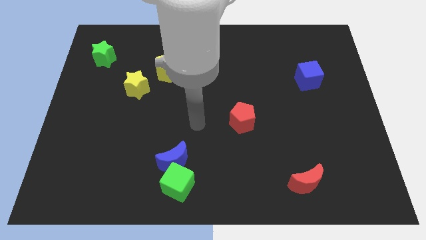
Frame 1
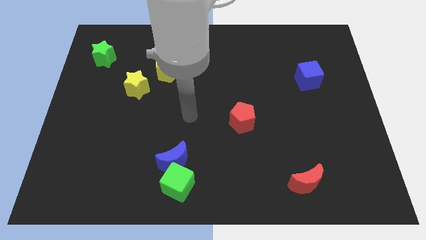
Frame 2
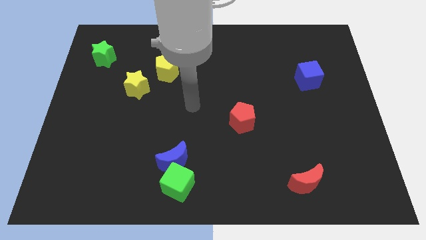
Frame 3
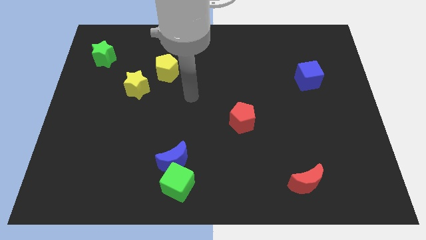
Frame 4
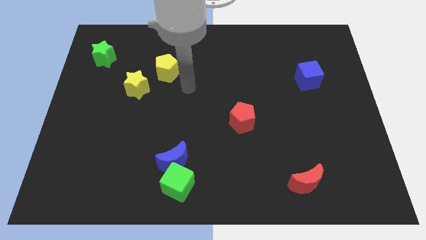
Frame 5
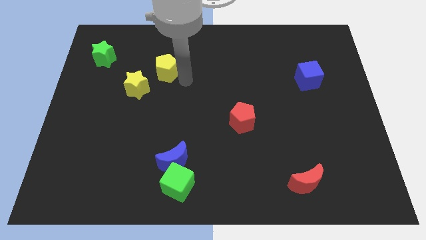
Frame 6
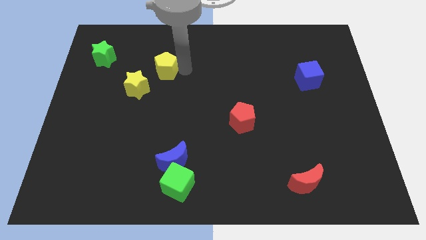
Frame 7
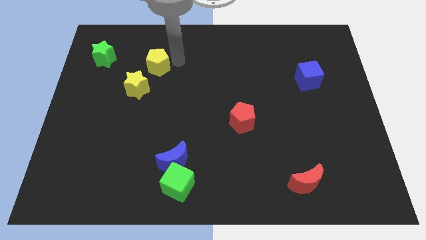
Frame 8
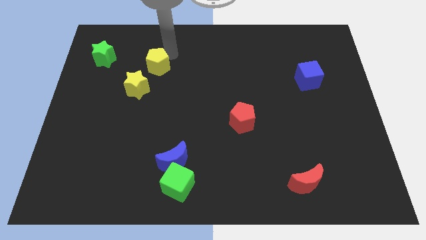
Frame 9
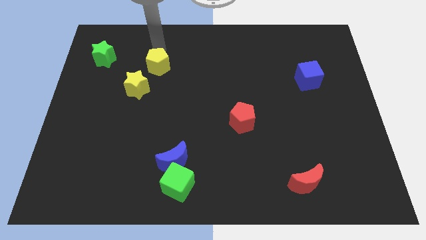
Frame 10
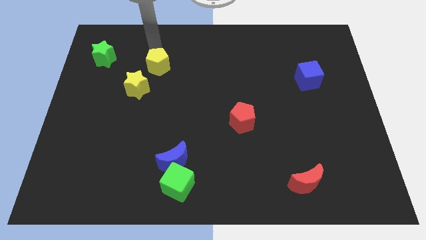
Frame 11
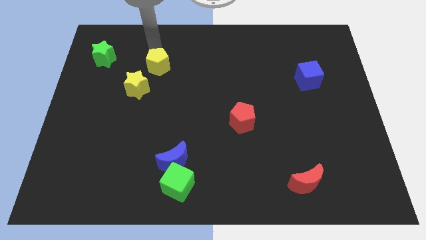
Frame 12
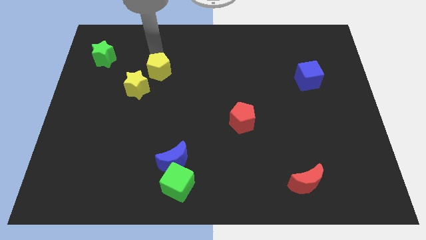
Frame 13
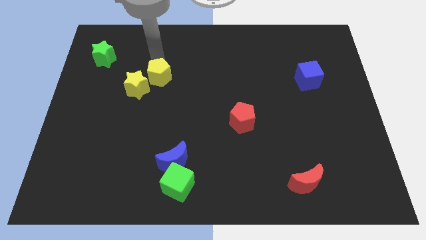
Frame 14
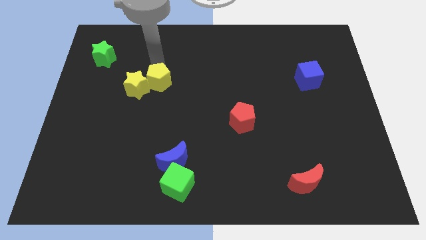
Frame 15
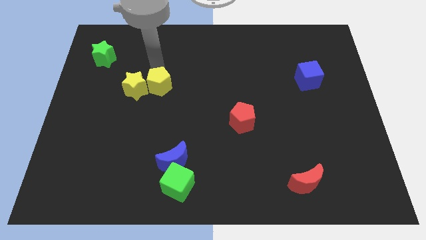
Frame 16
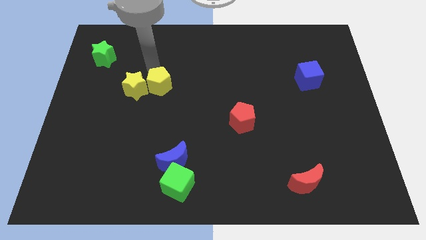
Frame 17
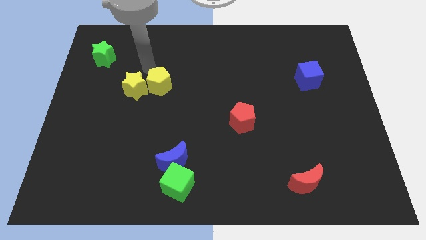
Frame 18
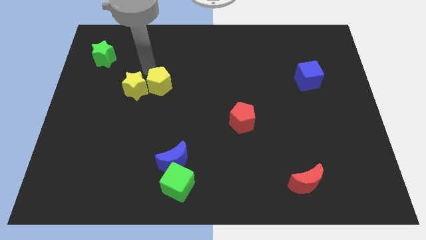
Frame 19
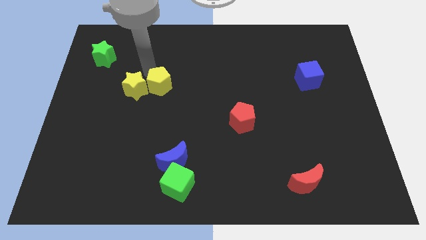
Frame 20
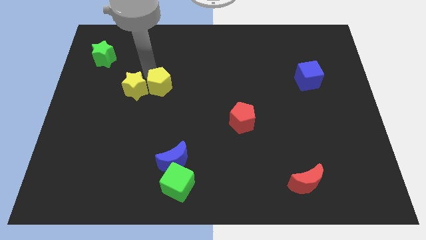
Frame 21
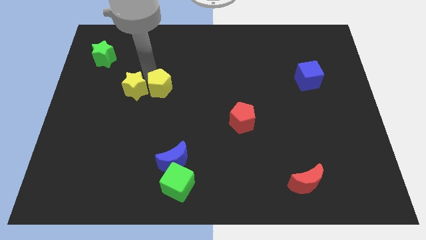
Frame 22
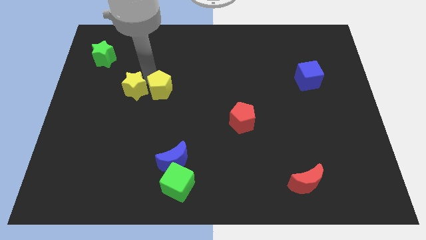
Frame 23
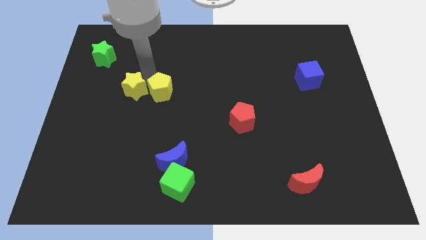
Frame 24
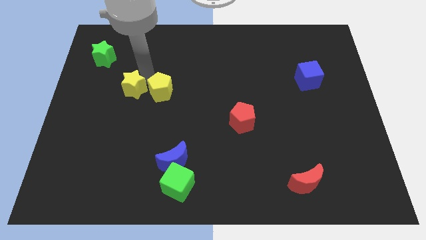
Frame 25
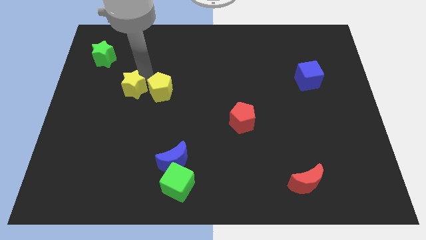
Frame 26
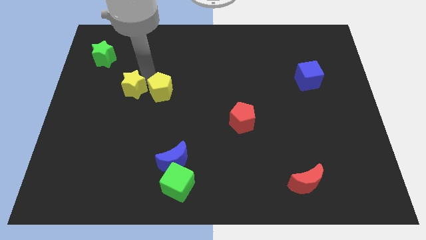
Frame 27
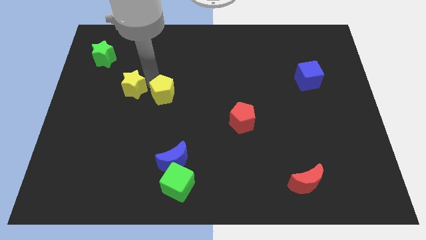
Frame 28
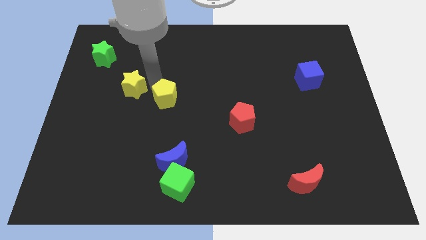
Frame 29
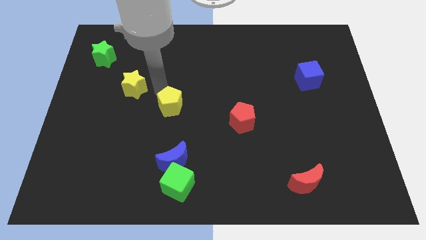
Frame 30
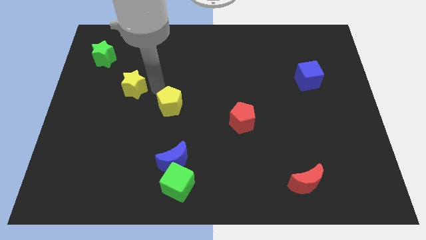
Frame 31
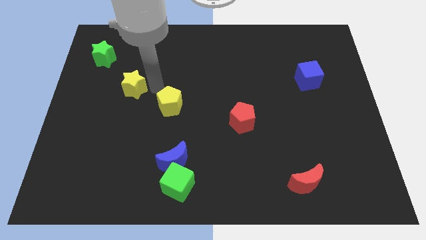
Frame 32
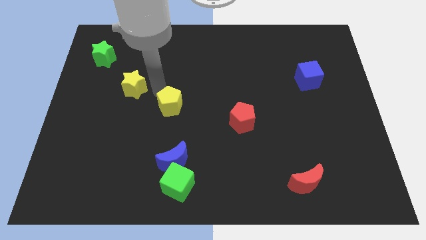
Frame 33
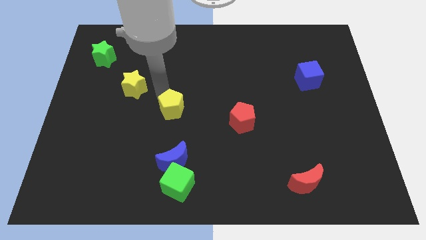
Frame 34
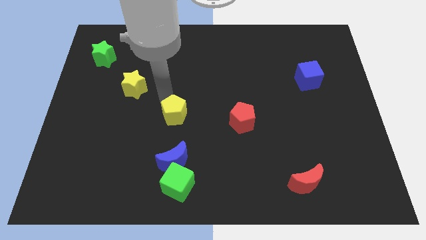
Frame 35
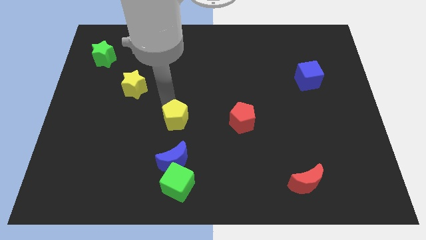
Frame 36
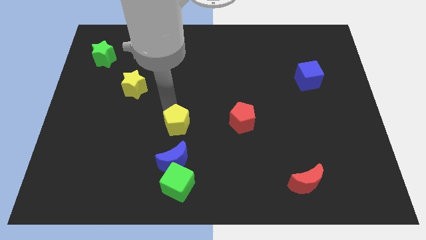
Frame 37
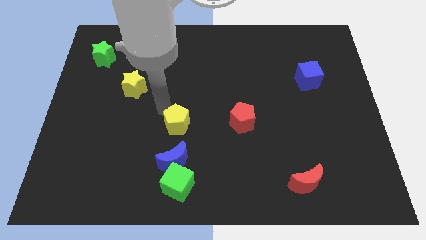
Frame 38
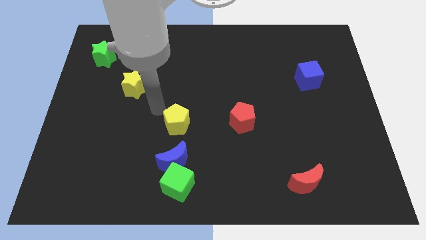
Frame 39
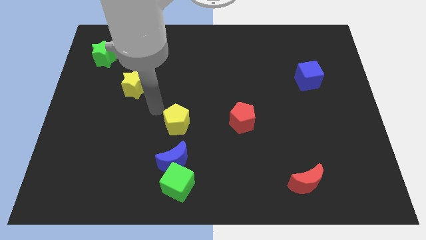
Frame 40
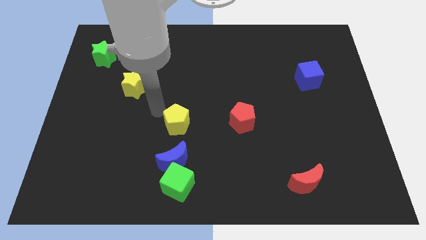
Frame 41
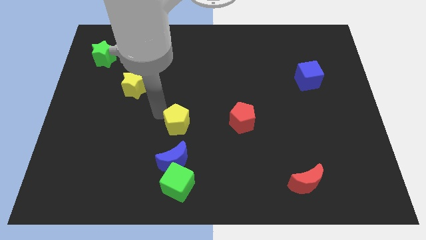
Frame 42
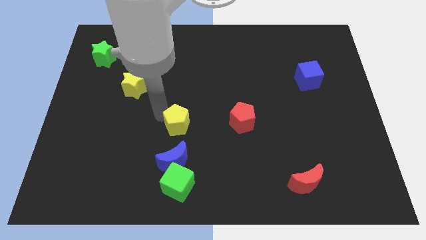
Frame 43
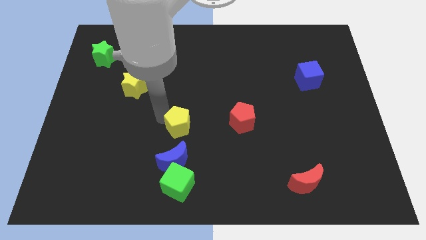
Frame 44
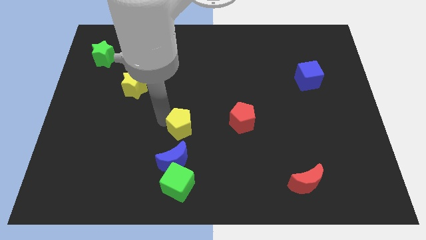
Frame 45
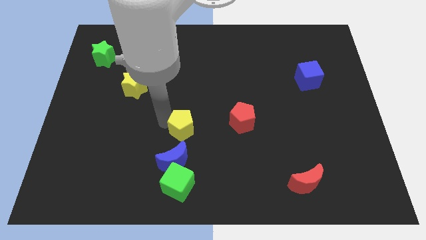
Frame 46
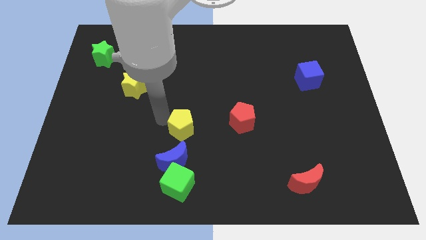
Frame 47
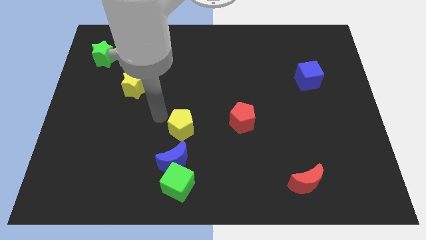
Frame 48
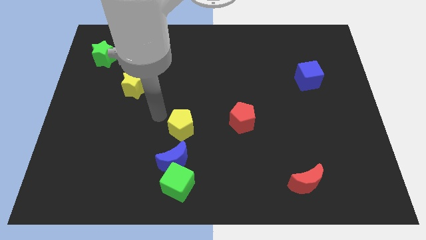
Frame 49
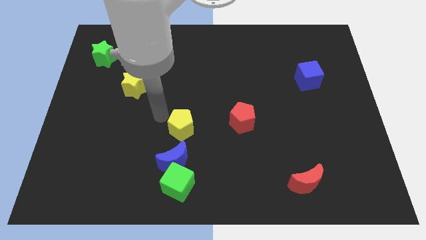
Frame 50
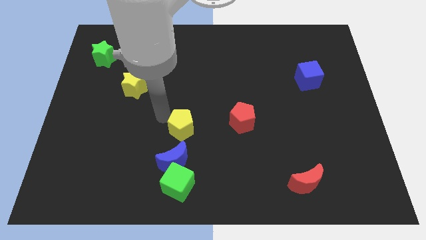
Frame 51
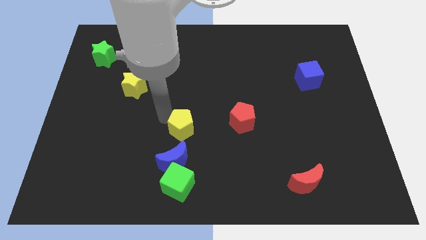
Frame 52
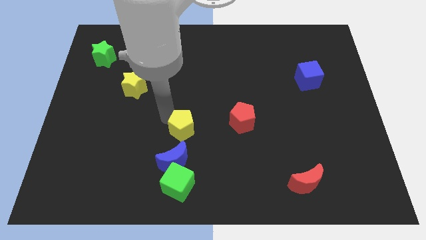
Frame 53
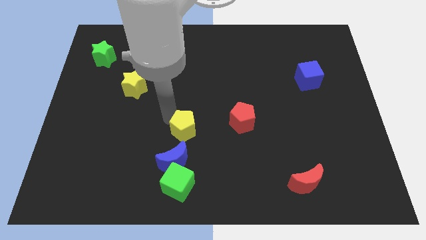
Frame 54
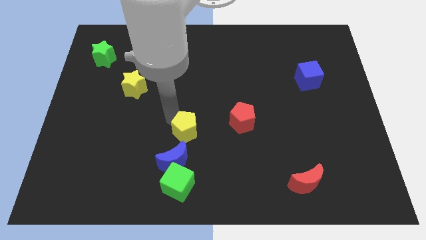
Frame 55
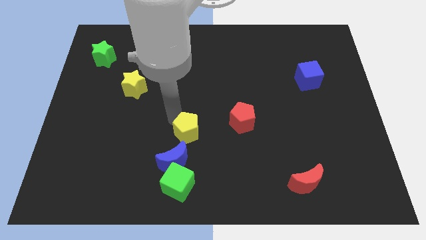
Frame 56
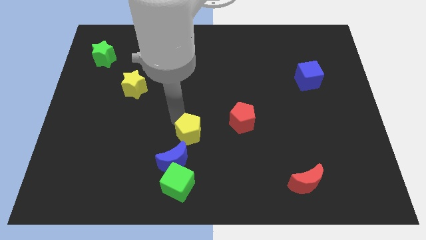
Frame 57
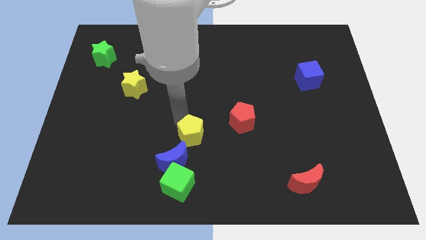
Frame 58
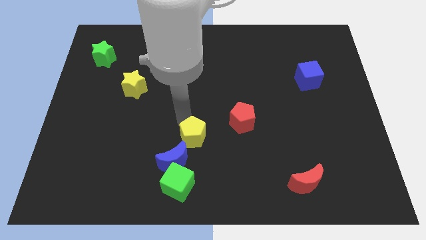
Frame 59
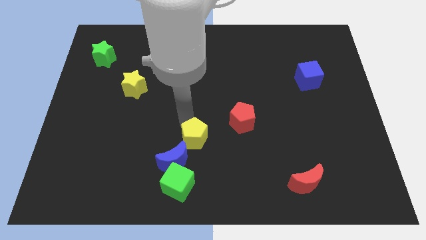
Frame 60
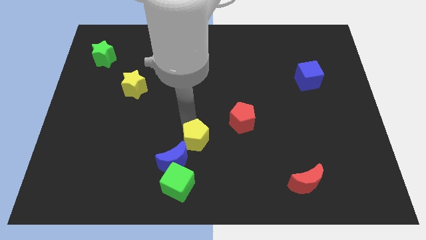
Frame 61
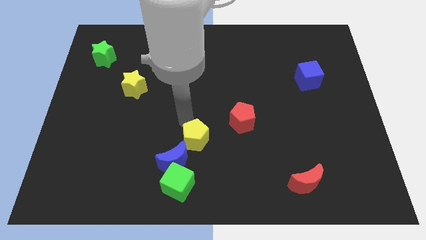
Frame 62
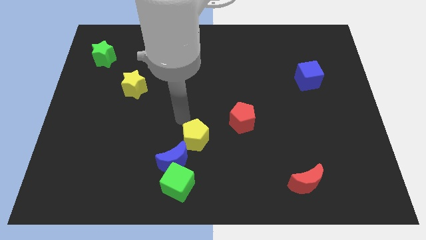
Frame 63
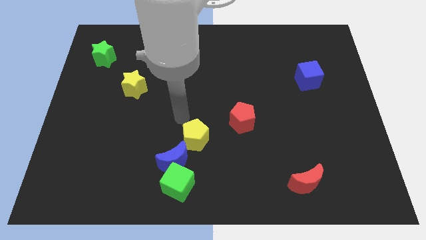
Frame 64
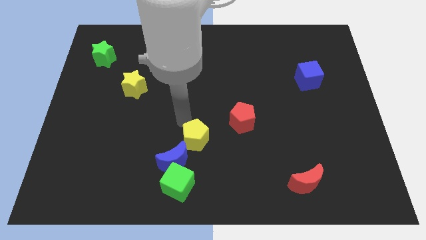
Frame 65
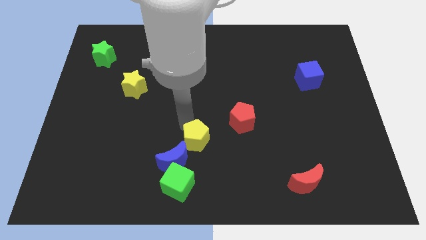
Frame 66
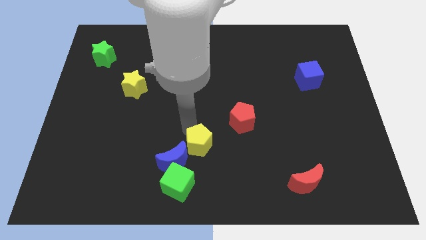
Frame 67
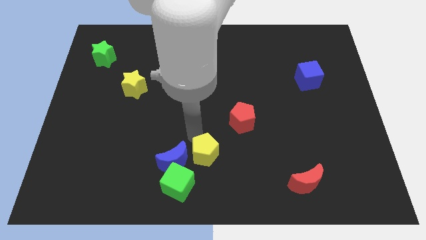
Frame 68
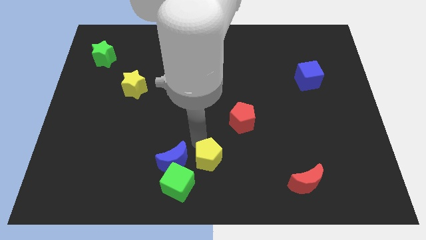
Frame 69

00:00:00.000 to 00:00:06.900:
slide the yellow pentagon to the bottom

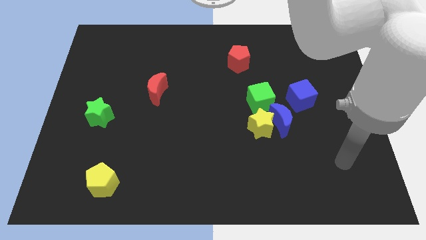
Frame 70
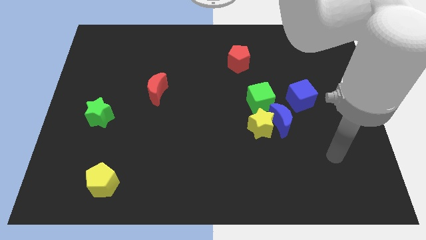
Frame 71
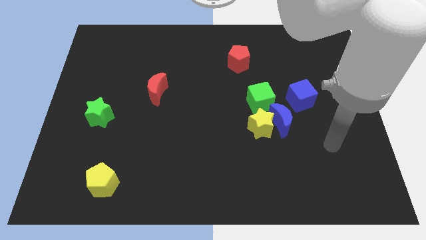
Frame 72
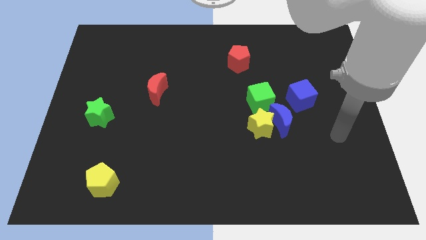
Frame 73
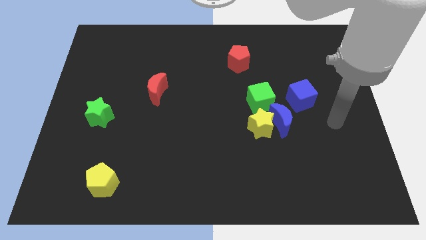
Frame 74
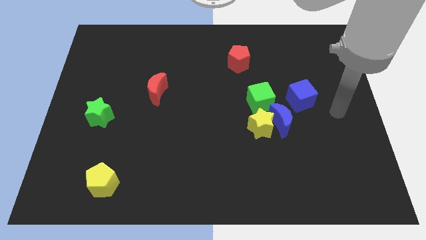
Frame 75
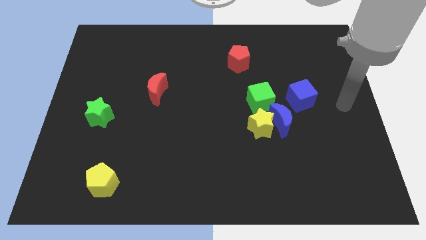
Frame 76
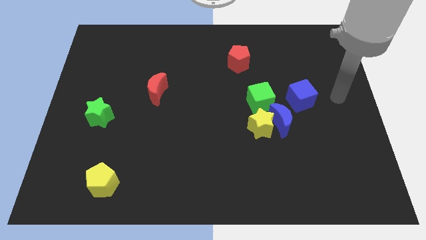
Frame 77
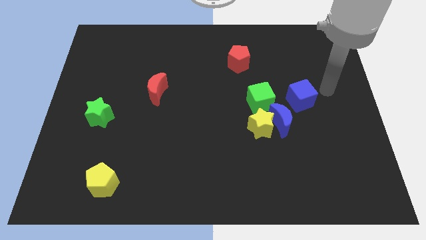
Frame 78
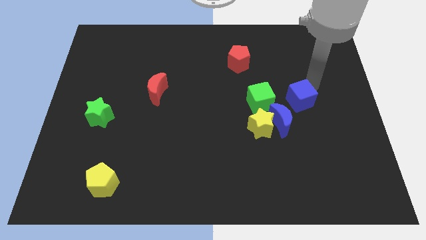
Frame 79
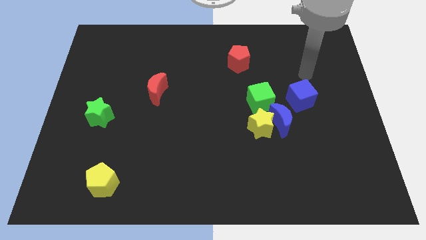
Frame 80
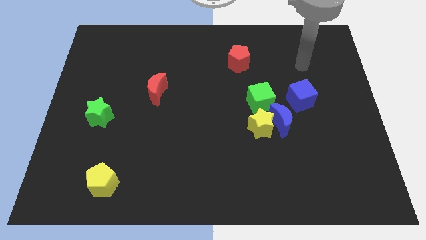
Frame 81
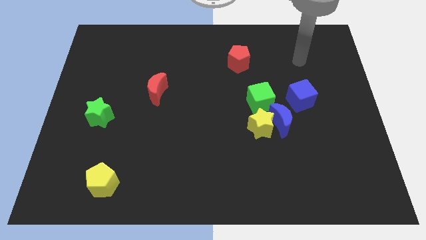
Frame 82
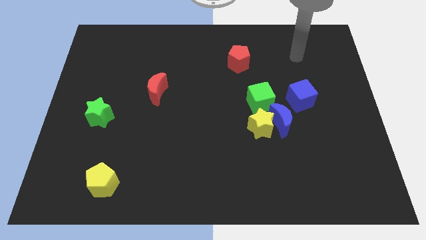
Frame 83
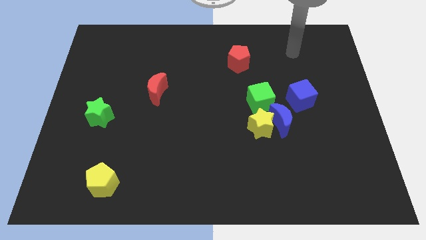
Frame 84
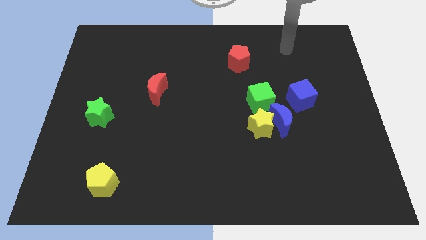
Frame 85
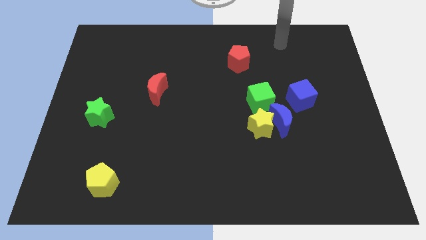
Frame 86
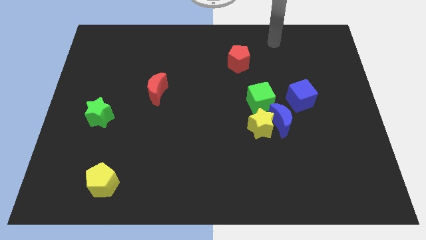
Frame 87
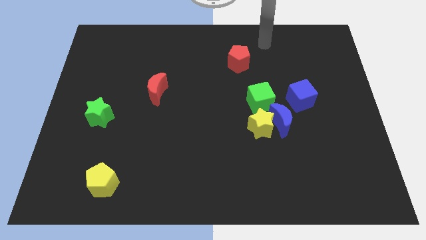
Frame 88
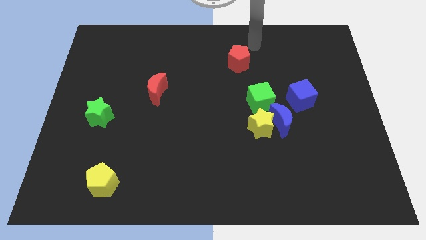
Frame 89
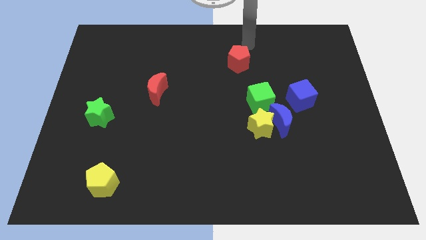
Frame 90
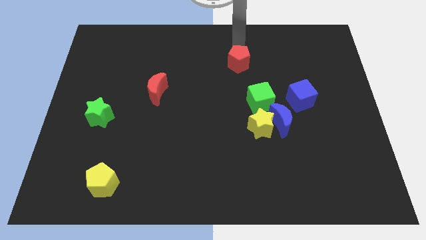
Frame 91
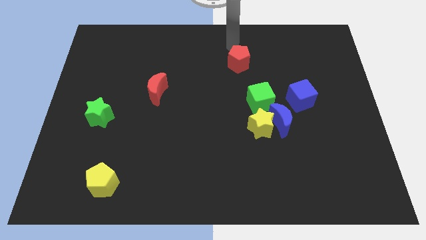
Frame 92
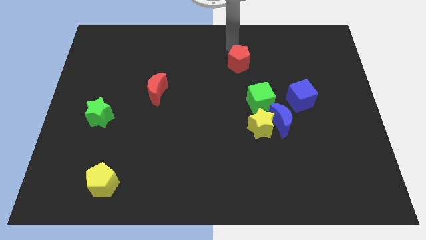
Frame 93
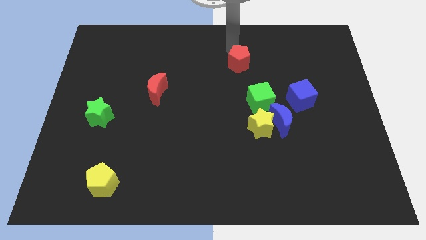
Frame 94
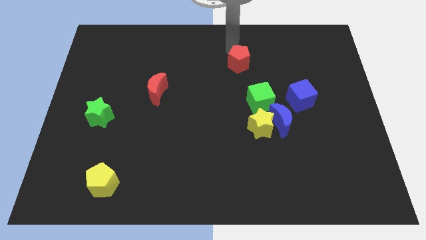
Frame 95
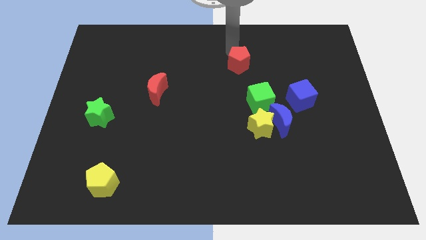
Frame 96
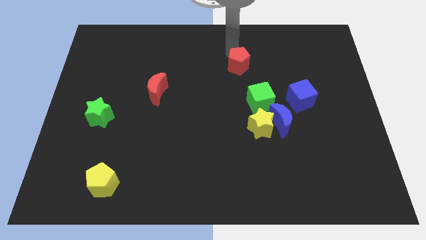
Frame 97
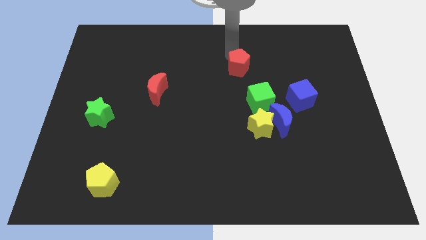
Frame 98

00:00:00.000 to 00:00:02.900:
slide the red pentagon to the middle of the board
